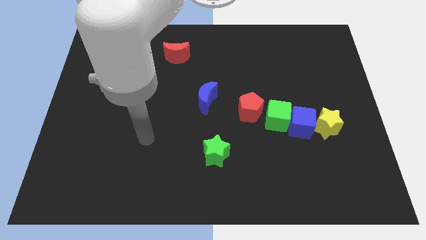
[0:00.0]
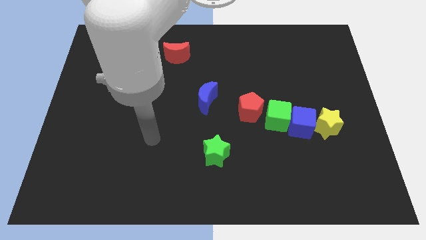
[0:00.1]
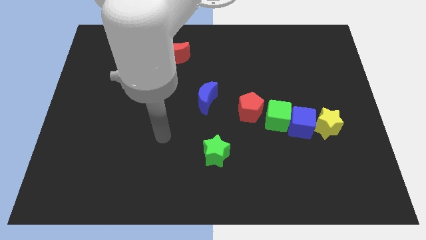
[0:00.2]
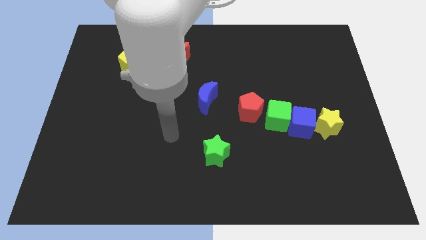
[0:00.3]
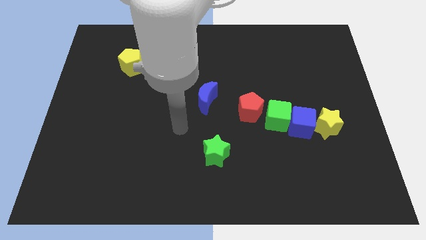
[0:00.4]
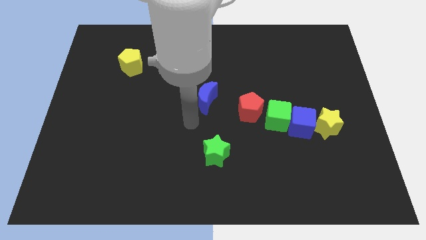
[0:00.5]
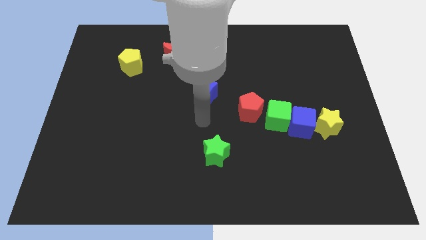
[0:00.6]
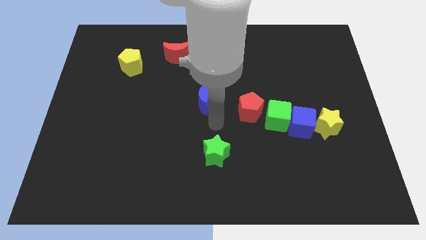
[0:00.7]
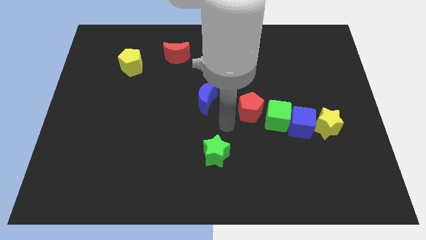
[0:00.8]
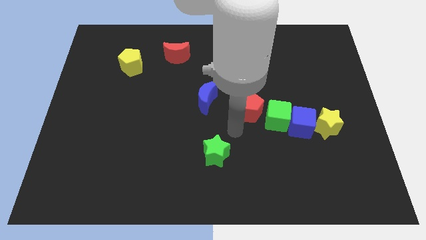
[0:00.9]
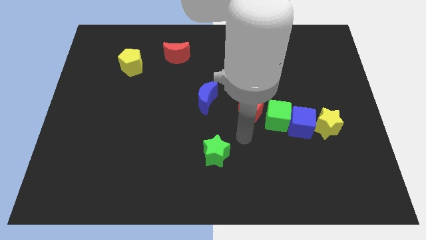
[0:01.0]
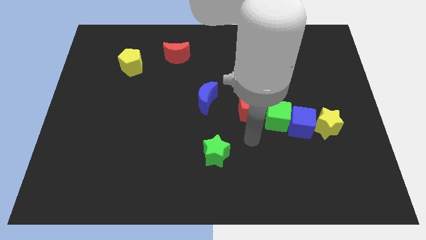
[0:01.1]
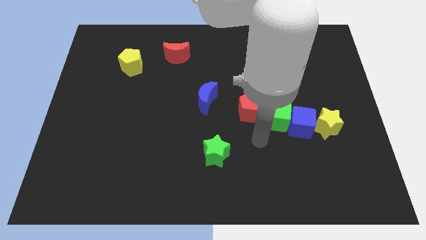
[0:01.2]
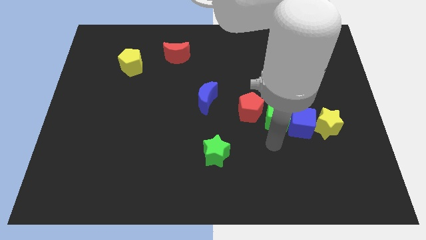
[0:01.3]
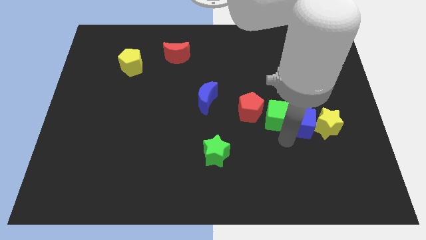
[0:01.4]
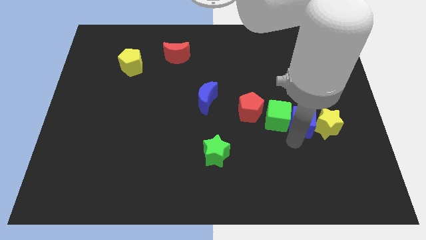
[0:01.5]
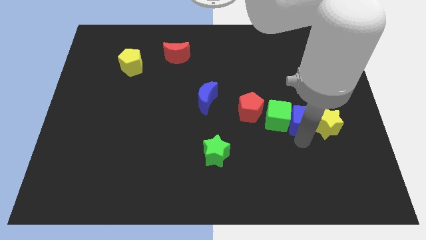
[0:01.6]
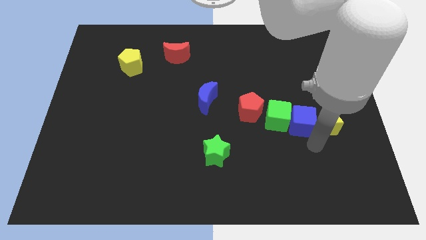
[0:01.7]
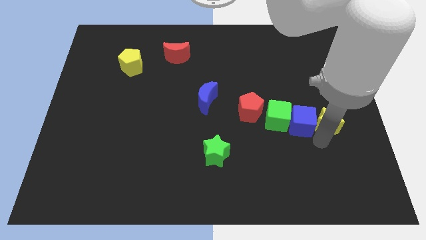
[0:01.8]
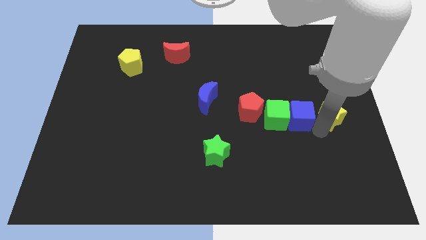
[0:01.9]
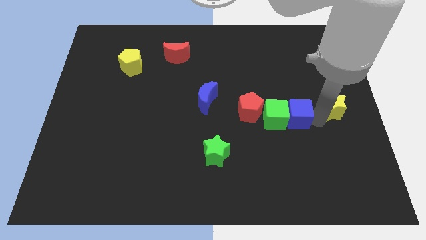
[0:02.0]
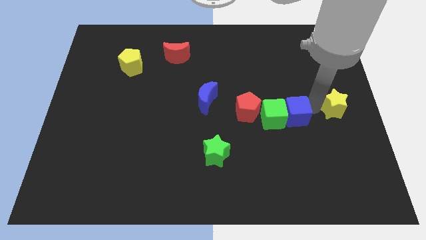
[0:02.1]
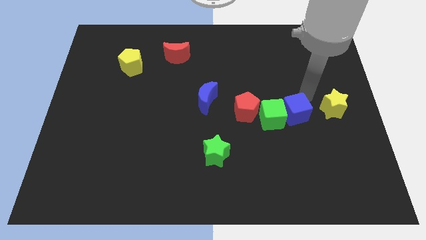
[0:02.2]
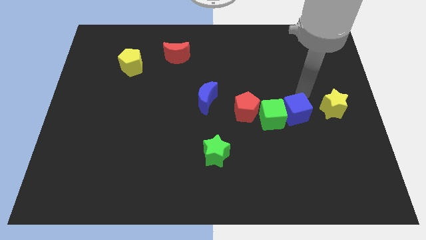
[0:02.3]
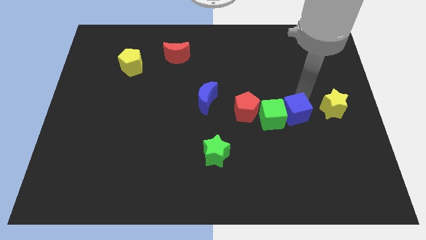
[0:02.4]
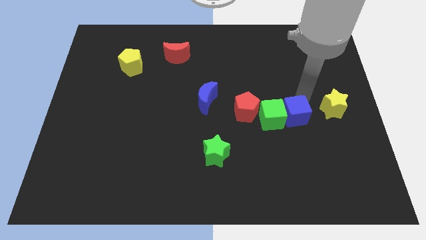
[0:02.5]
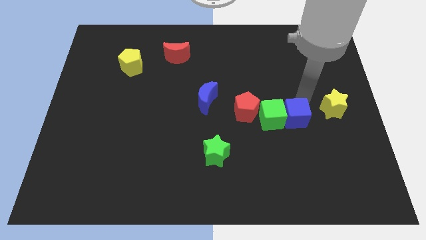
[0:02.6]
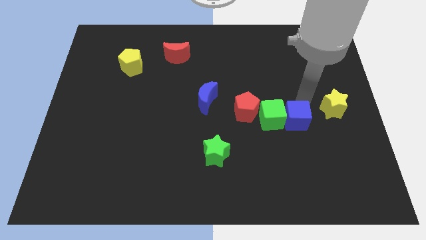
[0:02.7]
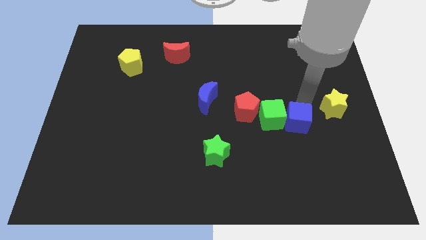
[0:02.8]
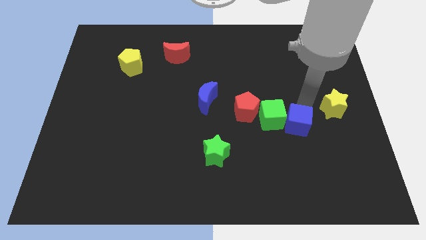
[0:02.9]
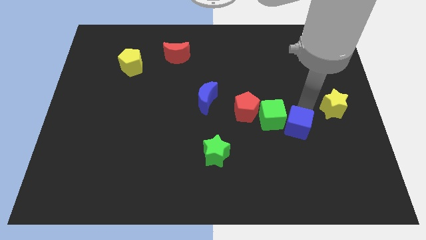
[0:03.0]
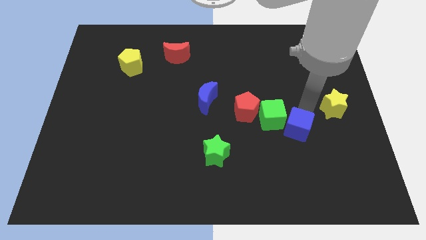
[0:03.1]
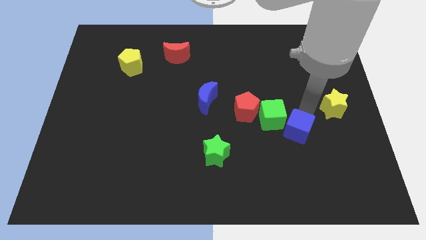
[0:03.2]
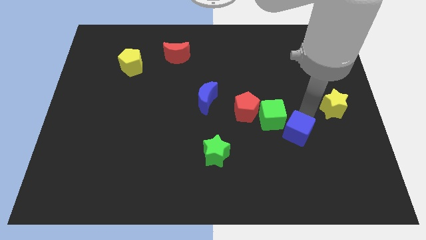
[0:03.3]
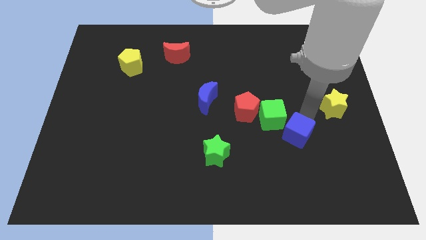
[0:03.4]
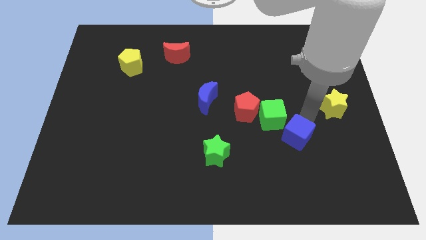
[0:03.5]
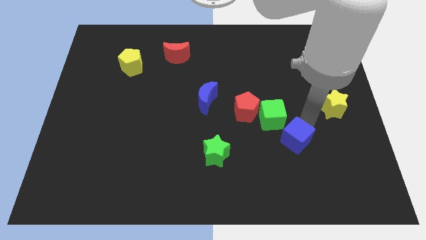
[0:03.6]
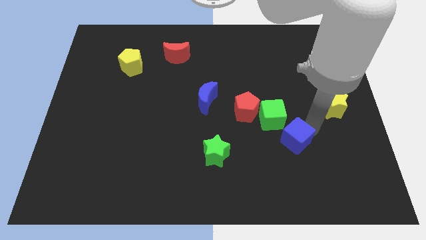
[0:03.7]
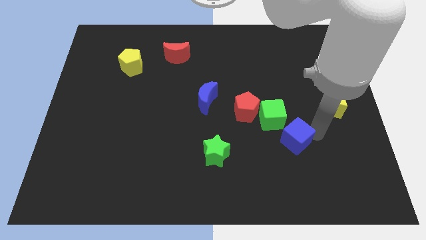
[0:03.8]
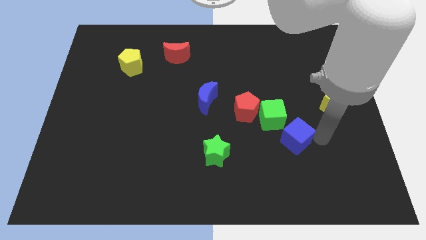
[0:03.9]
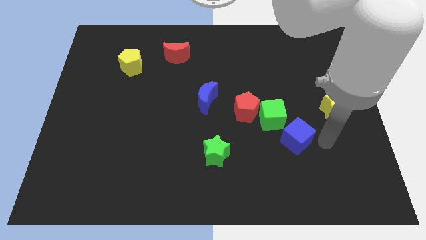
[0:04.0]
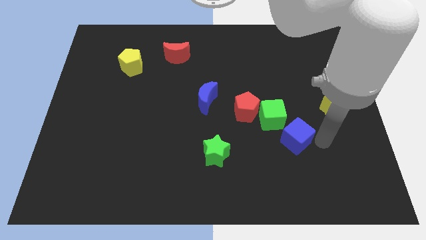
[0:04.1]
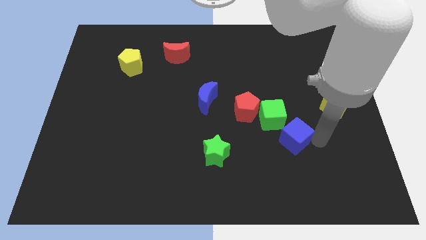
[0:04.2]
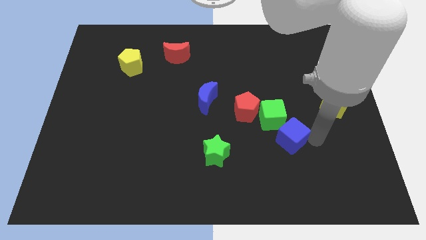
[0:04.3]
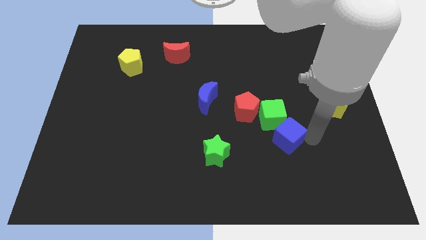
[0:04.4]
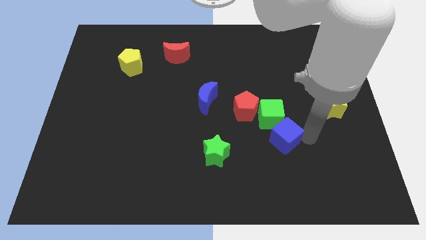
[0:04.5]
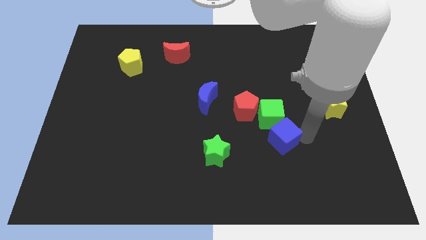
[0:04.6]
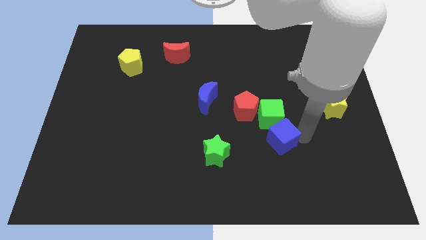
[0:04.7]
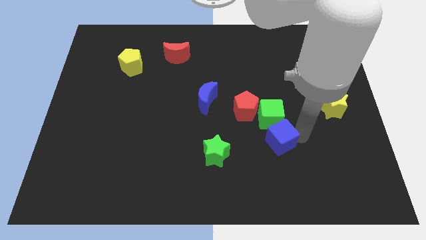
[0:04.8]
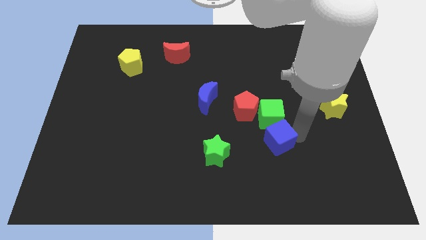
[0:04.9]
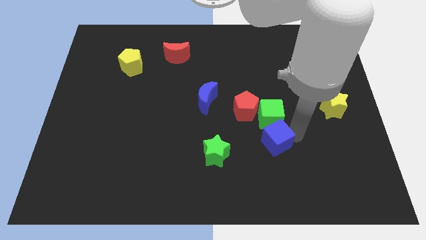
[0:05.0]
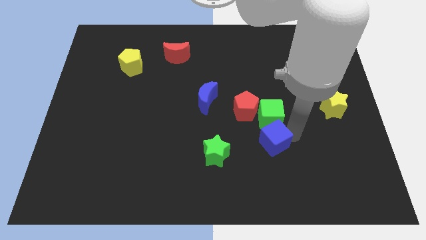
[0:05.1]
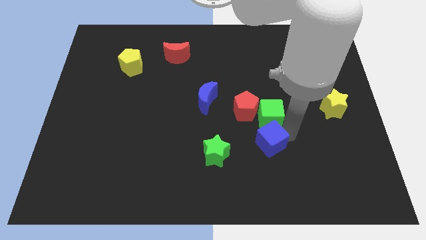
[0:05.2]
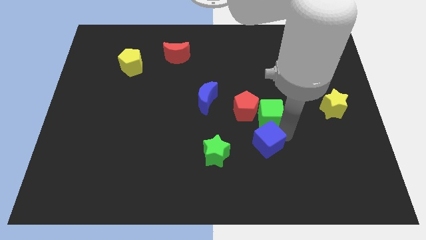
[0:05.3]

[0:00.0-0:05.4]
slightly slide the blue cube to the left

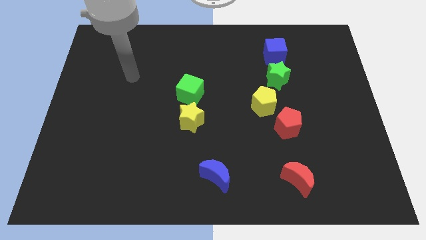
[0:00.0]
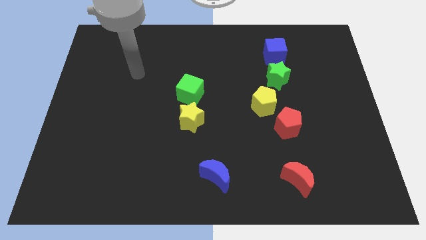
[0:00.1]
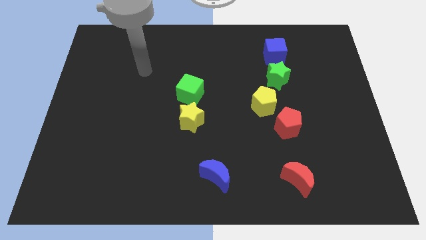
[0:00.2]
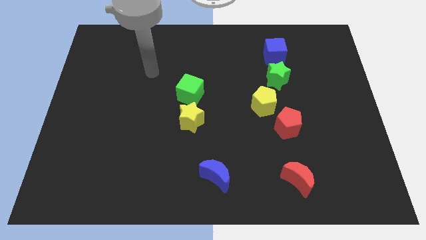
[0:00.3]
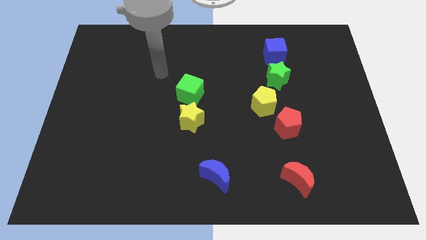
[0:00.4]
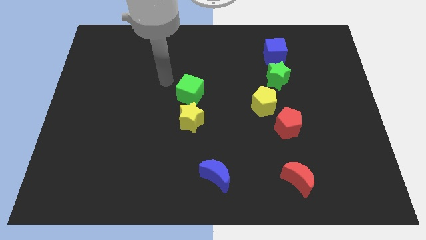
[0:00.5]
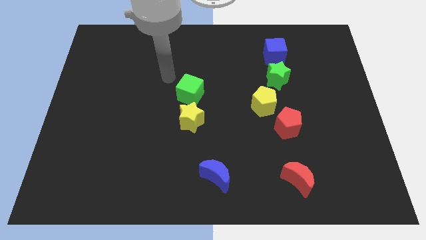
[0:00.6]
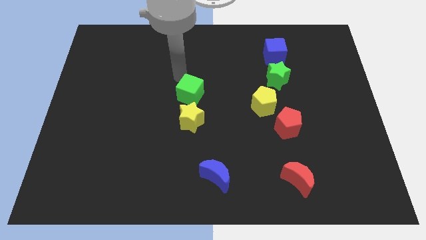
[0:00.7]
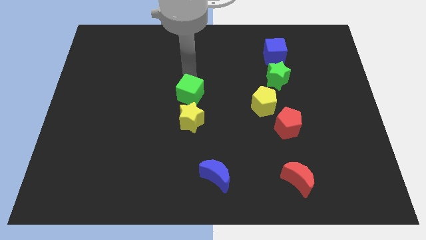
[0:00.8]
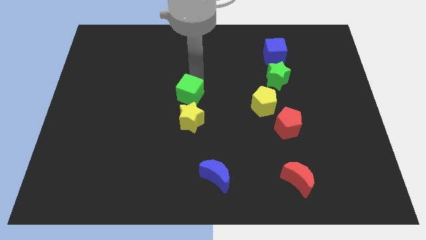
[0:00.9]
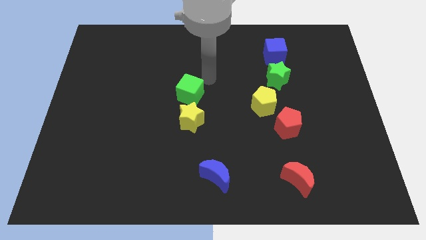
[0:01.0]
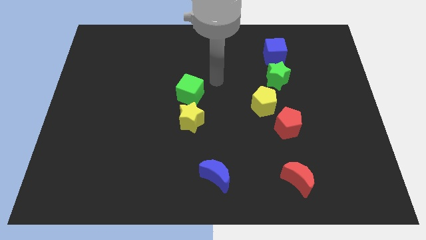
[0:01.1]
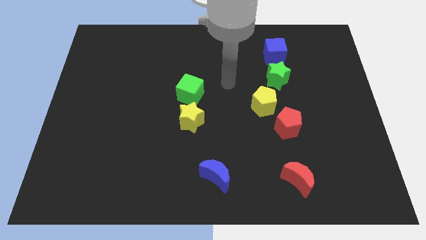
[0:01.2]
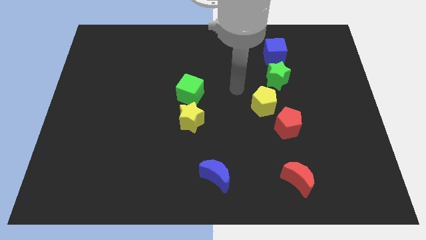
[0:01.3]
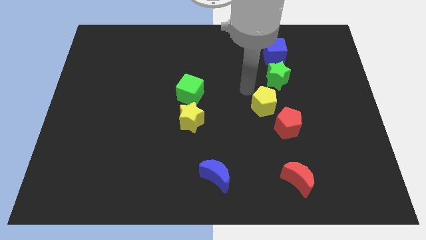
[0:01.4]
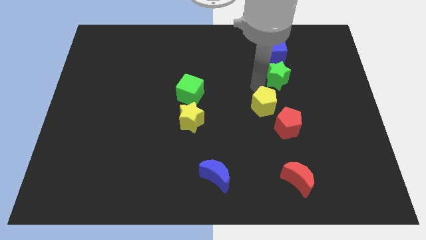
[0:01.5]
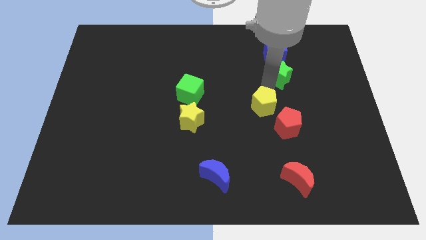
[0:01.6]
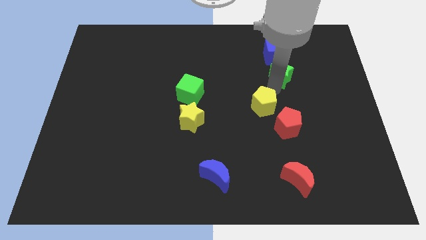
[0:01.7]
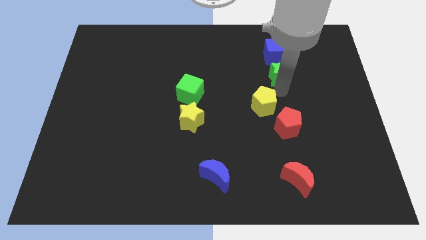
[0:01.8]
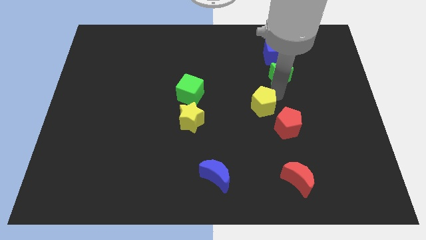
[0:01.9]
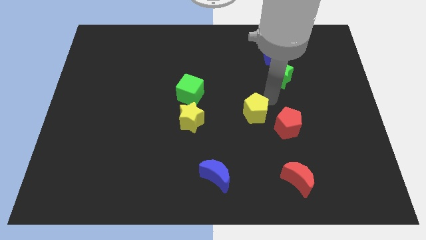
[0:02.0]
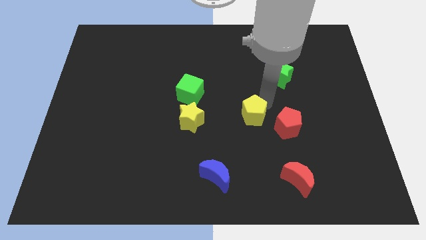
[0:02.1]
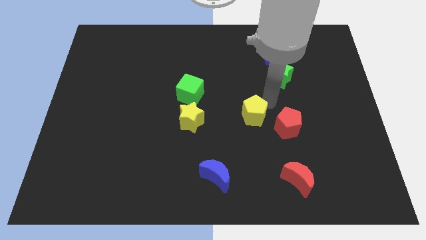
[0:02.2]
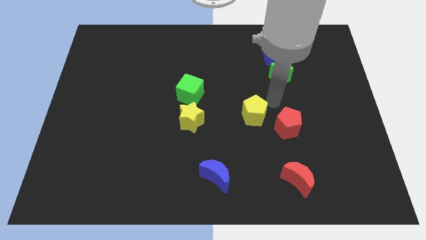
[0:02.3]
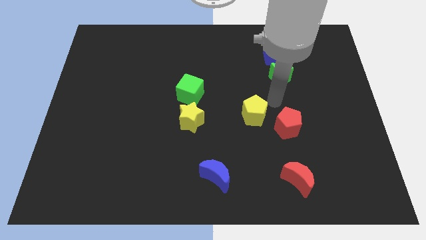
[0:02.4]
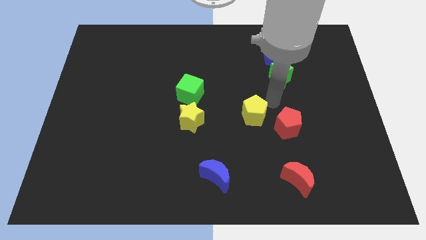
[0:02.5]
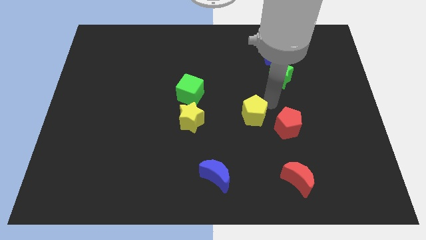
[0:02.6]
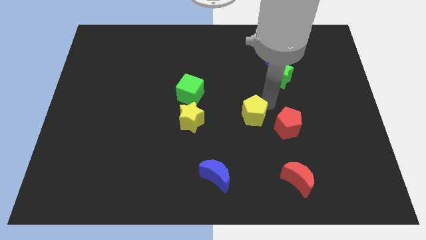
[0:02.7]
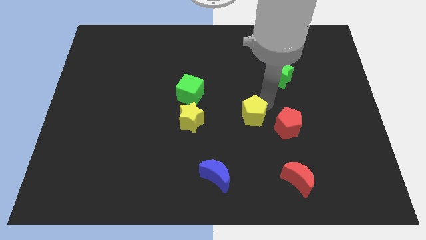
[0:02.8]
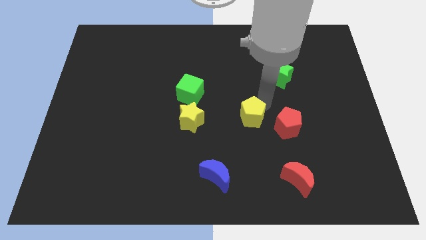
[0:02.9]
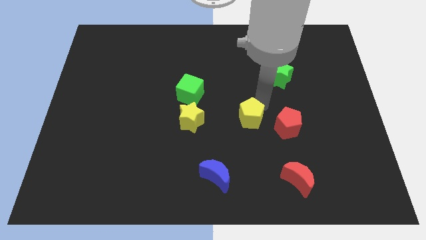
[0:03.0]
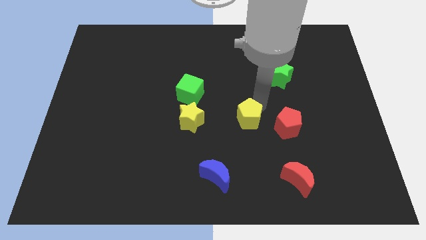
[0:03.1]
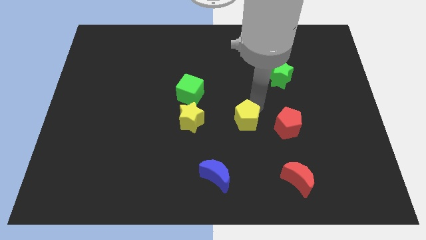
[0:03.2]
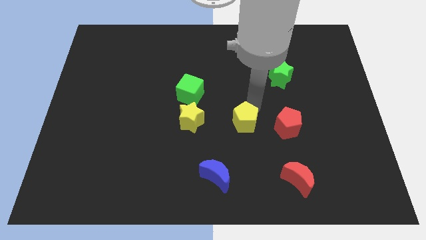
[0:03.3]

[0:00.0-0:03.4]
slightly move the yellow pentagon down and to the left
